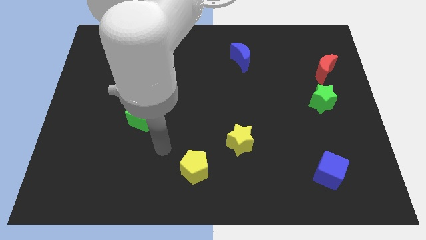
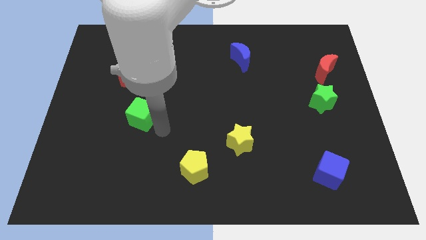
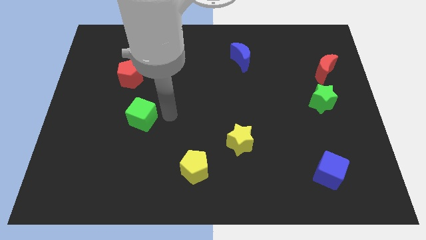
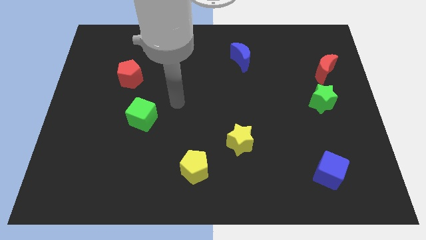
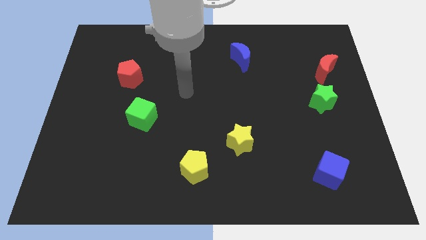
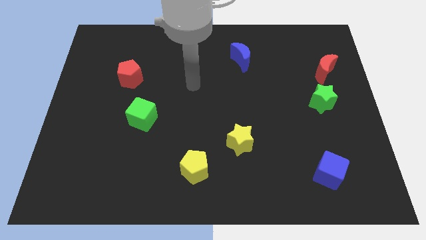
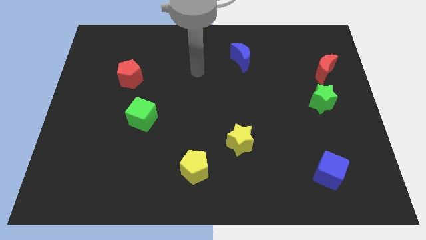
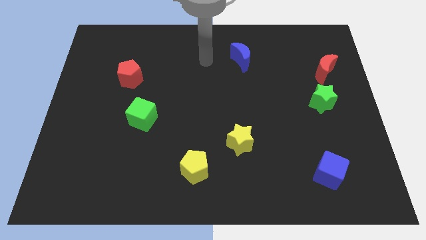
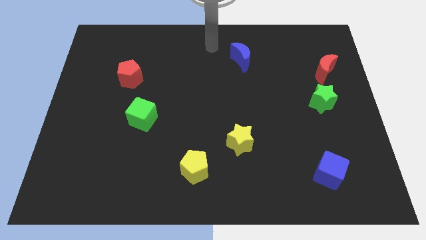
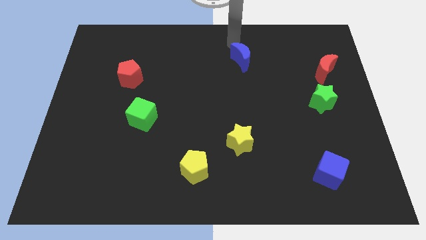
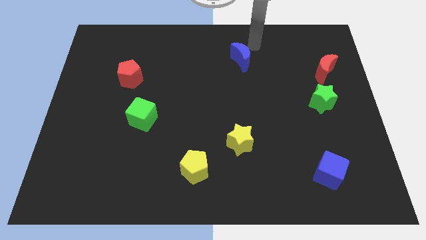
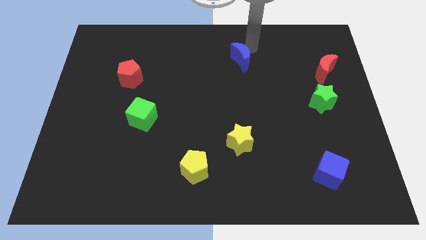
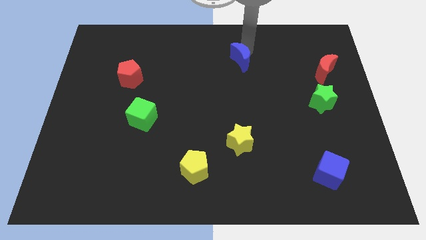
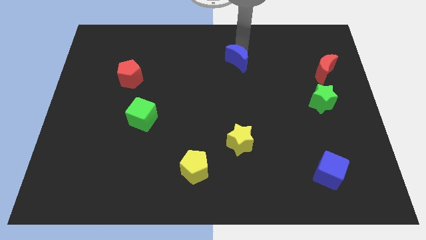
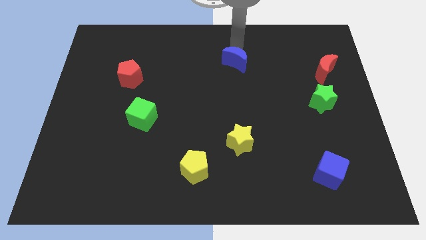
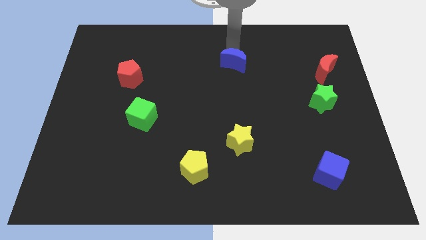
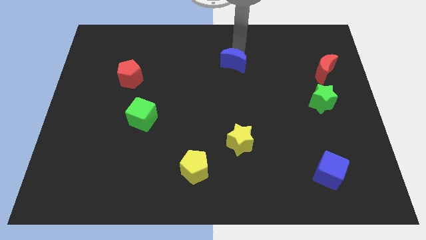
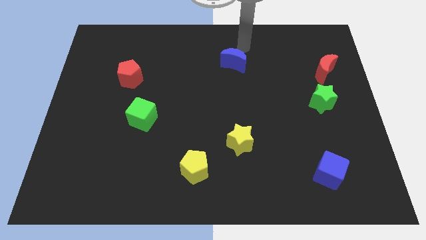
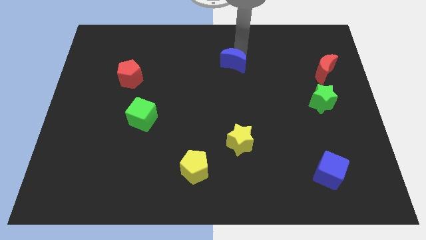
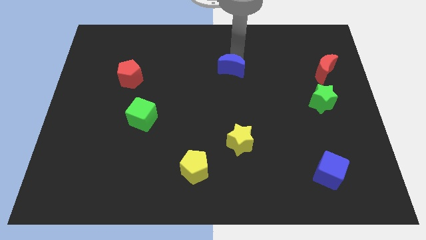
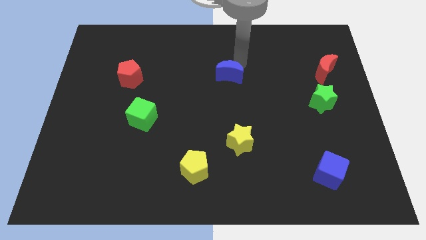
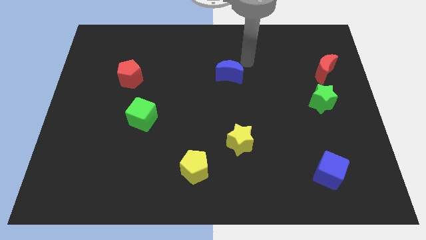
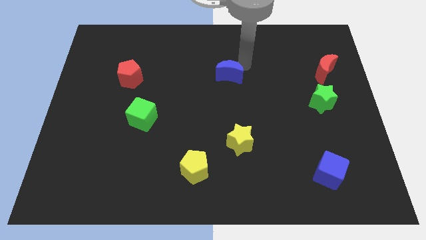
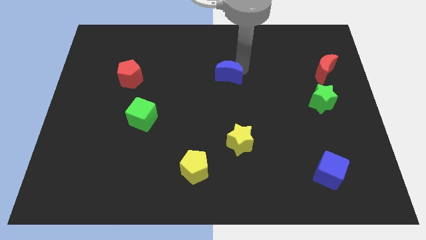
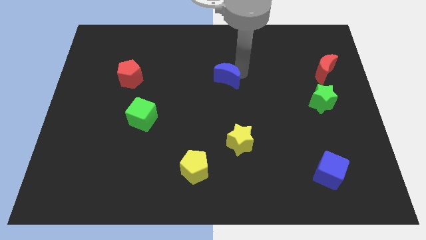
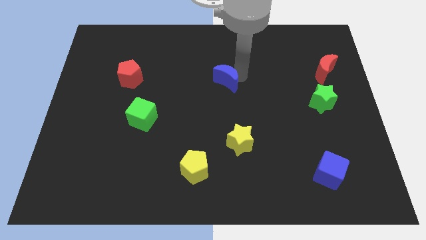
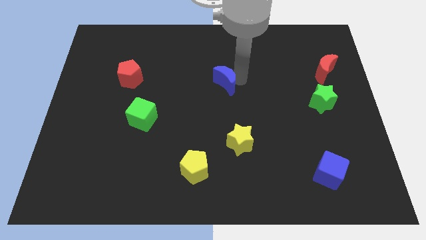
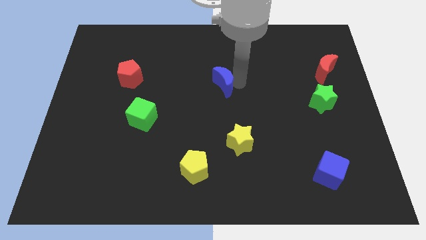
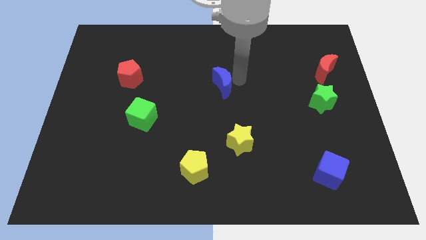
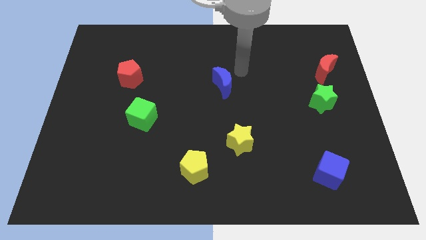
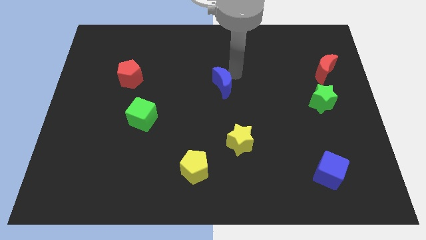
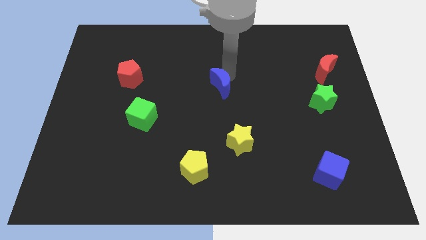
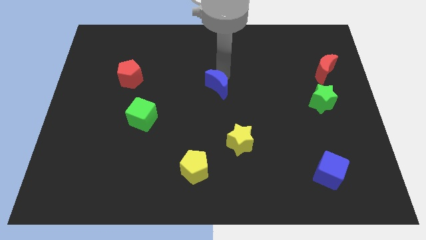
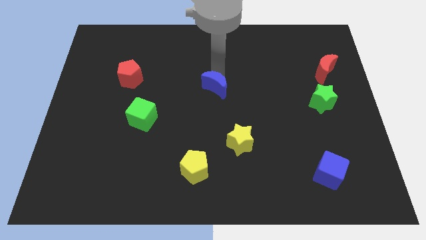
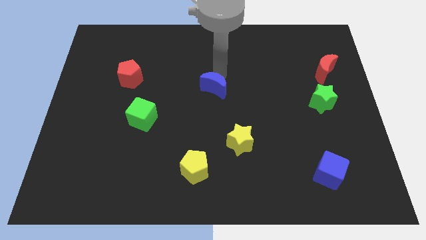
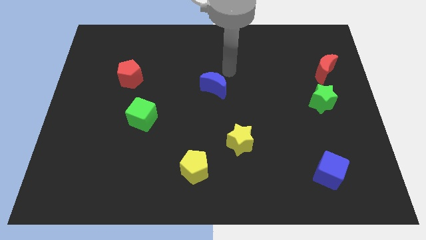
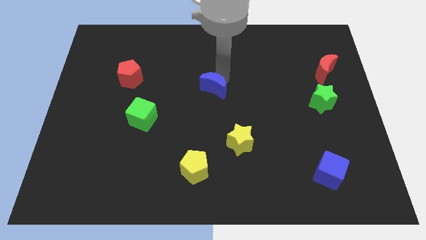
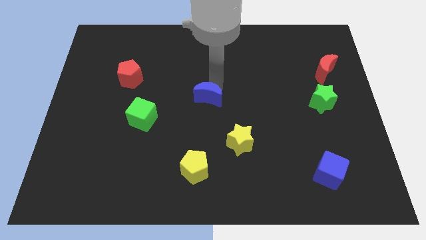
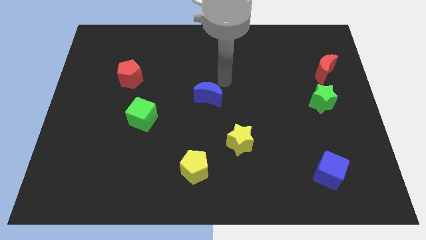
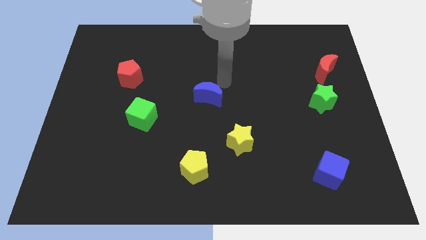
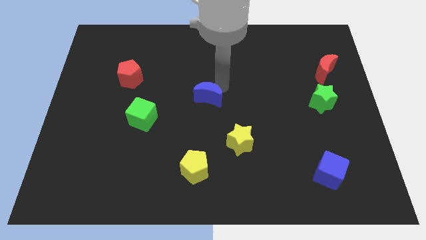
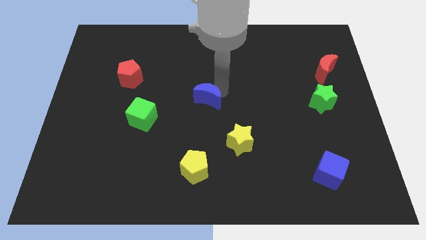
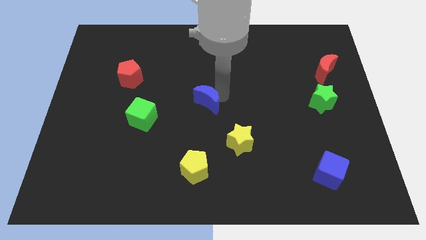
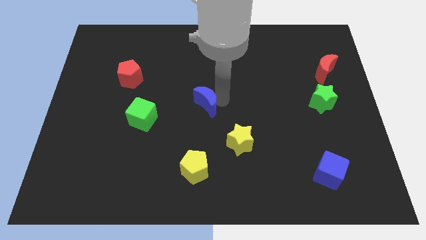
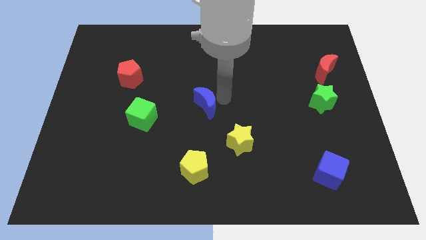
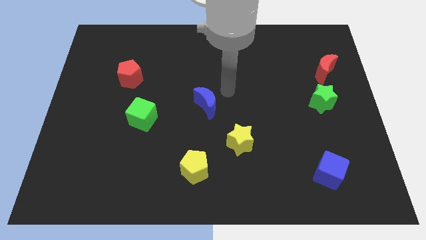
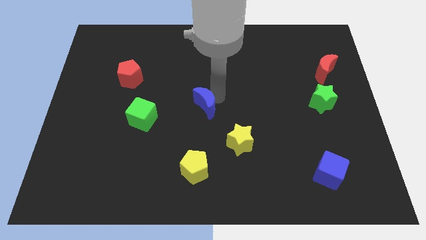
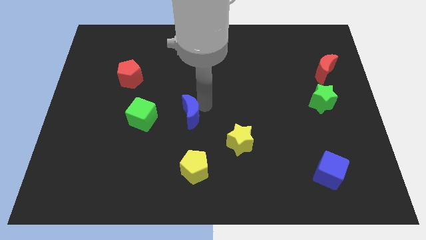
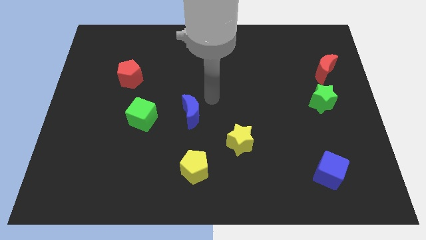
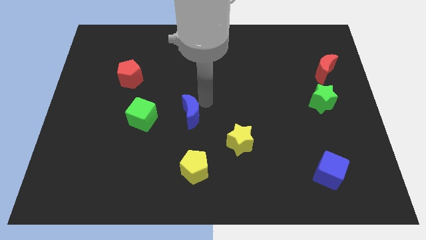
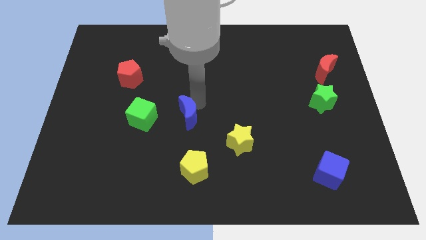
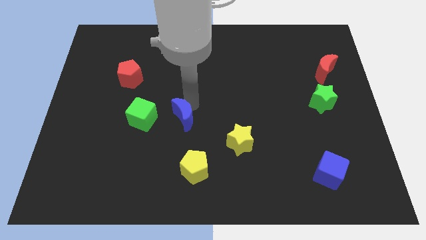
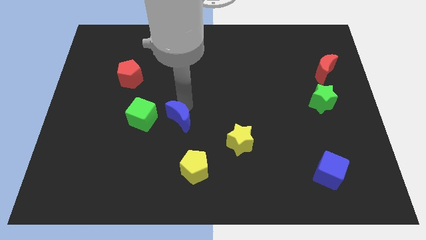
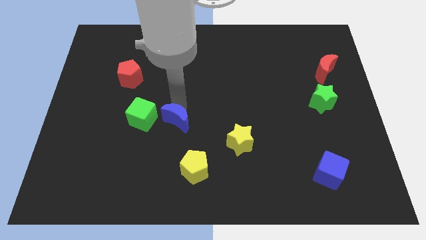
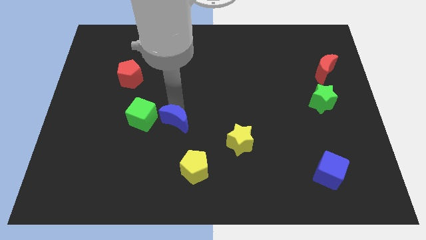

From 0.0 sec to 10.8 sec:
move the blue moon to the bottom right side of the green cube

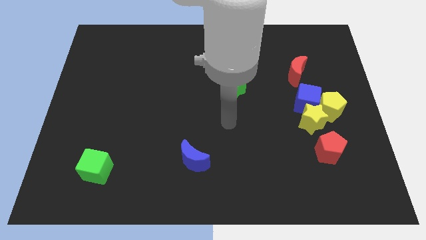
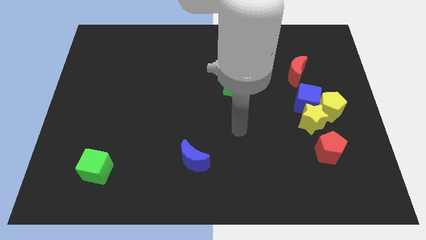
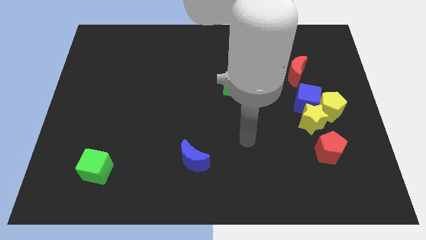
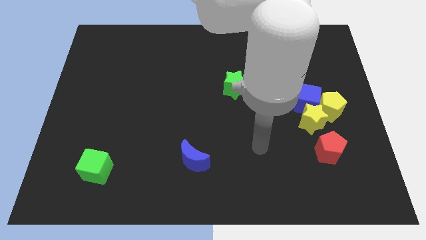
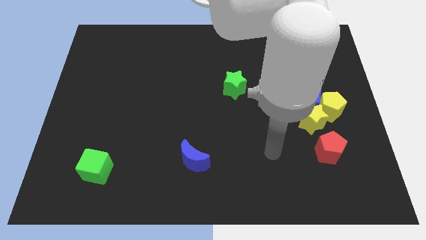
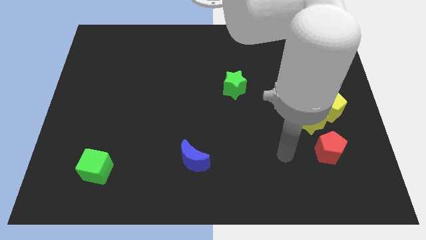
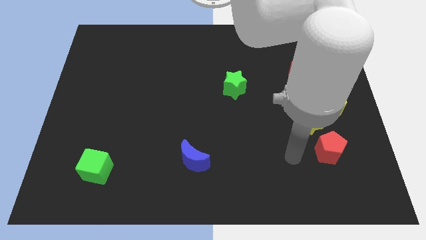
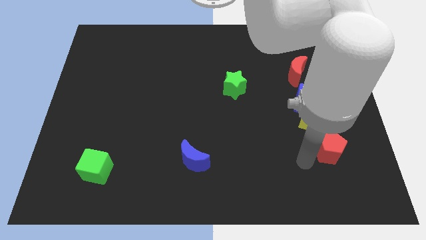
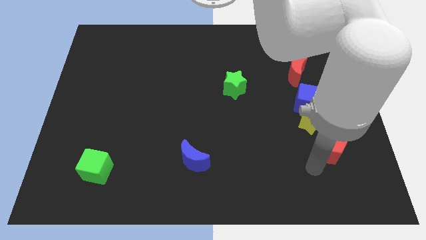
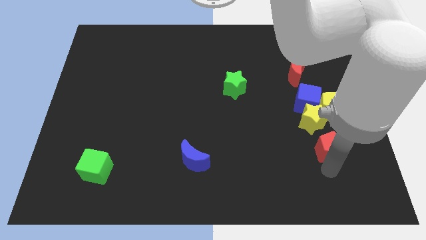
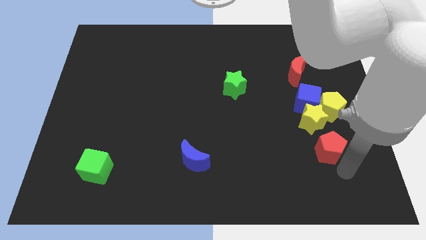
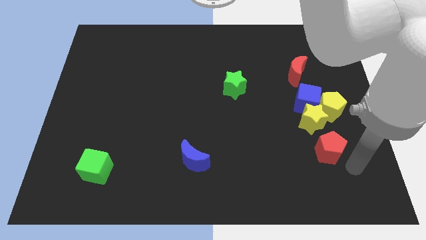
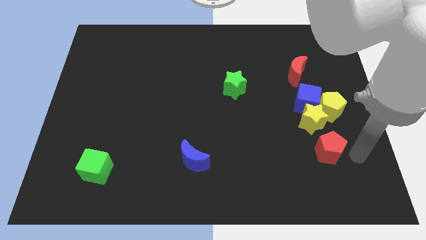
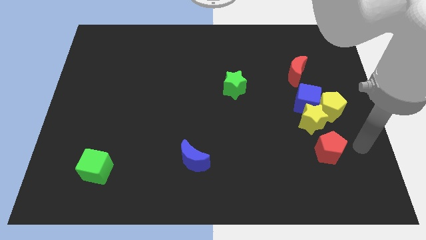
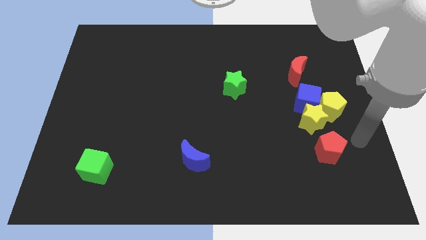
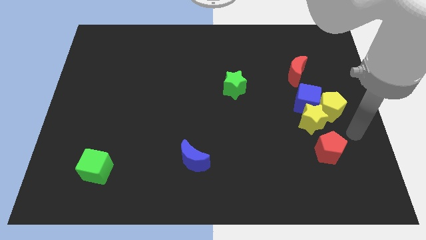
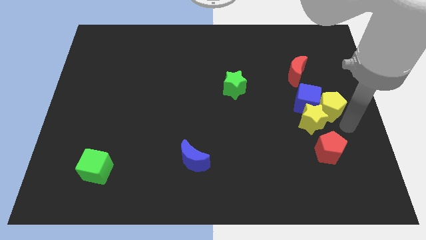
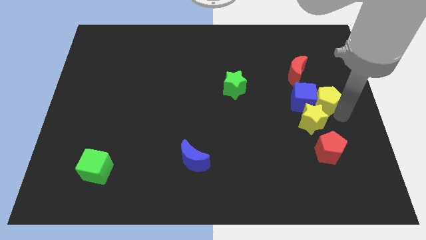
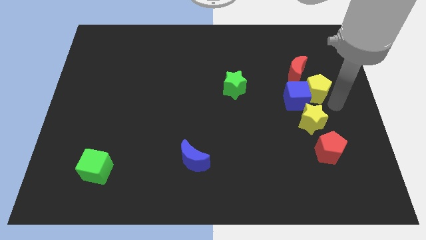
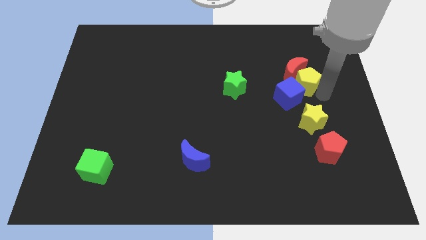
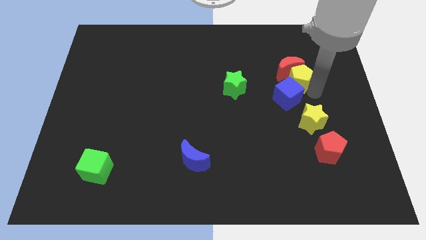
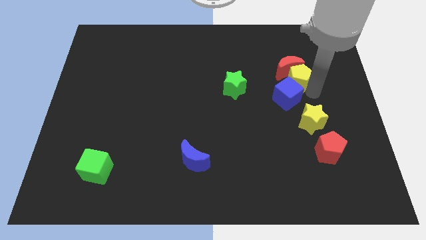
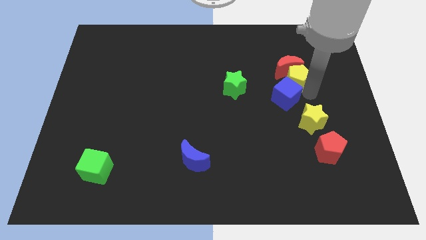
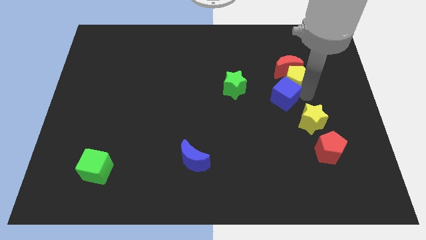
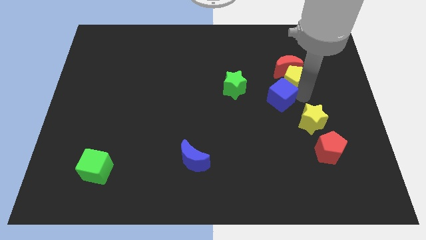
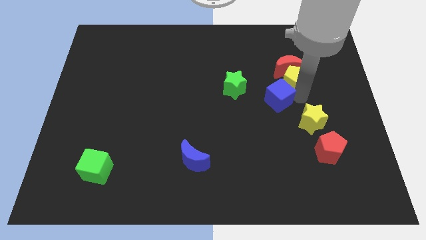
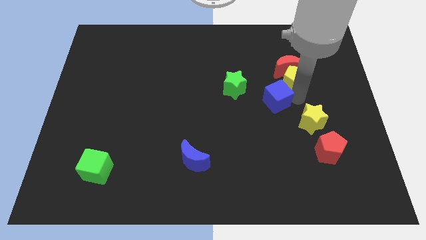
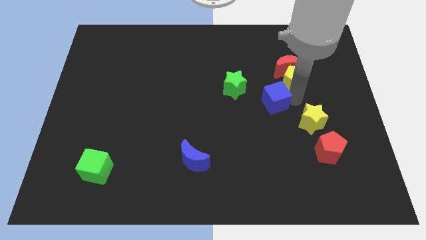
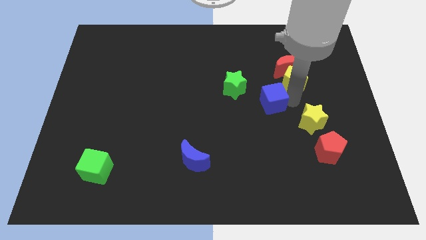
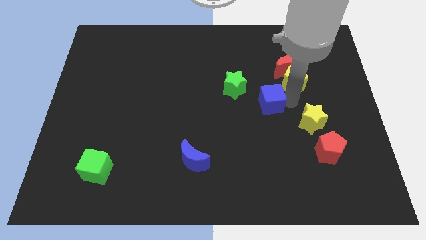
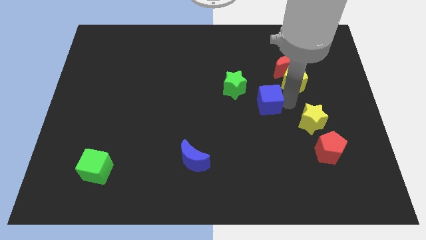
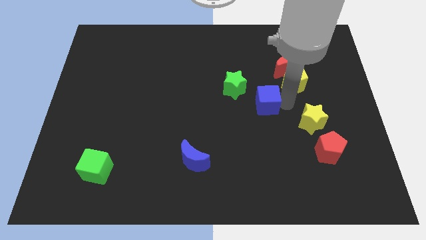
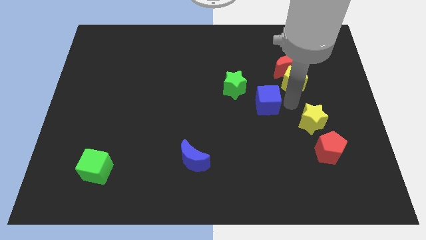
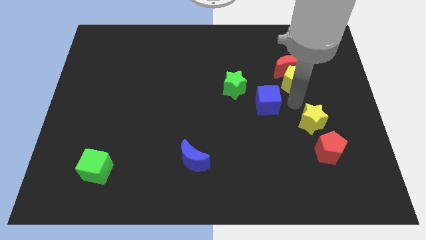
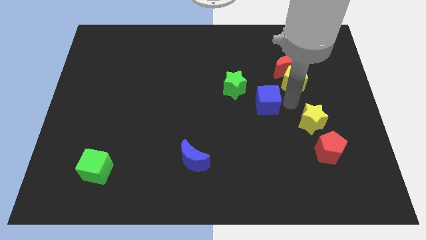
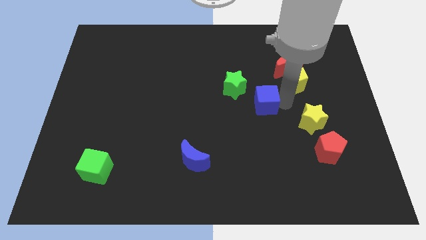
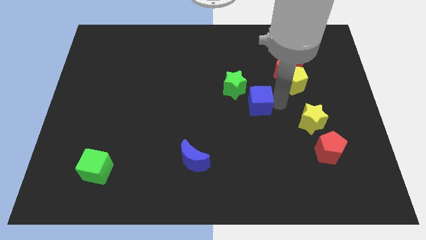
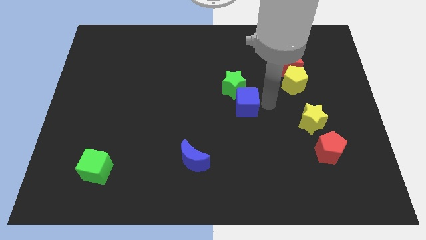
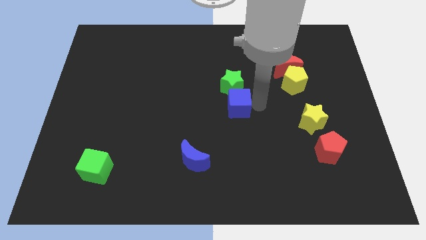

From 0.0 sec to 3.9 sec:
put the blue cube to the bottom left of the green star
